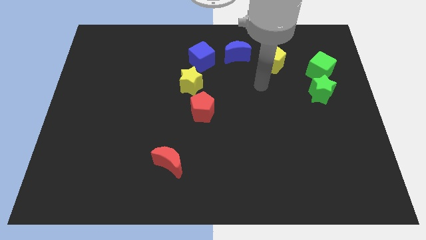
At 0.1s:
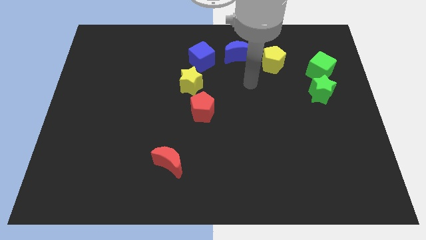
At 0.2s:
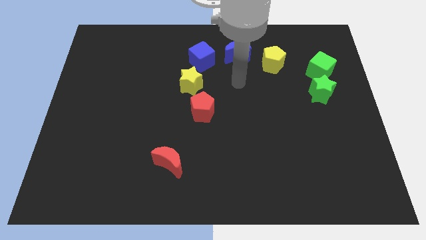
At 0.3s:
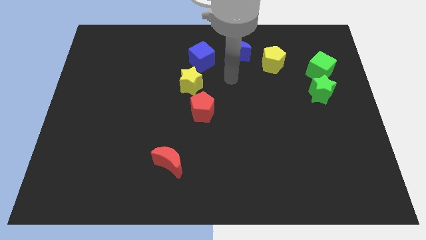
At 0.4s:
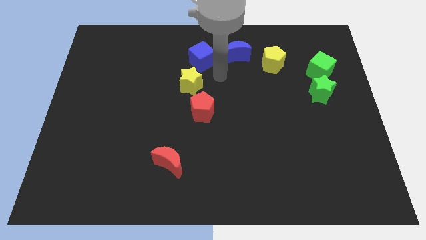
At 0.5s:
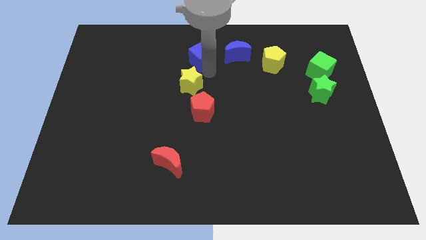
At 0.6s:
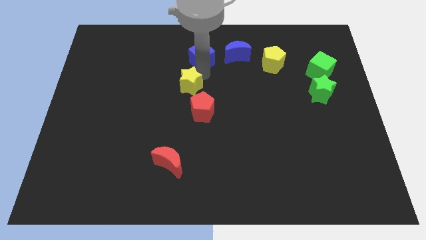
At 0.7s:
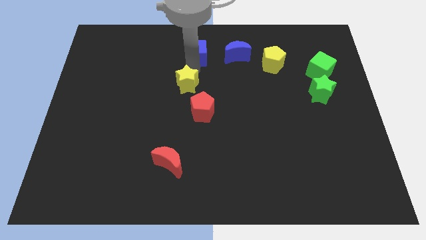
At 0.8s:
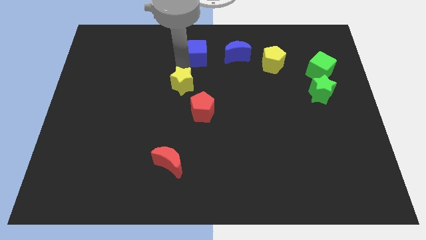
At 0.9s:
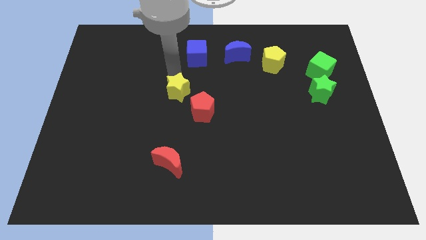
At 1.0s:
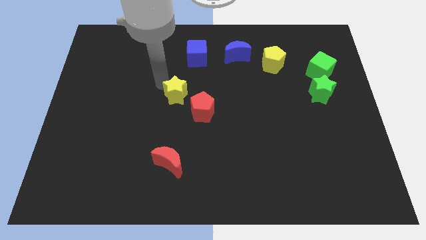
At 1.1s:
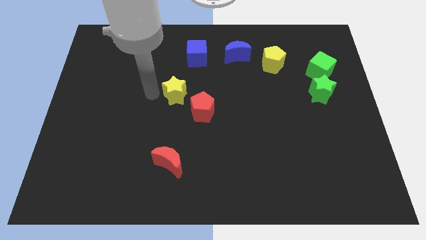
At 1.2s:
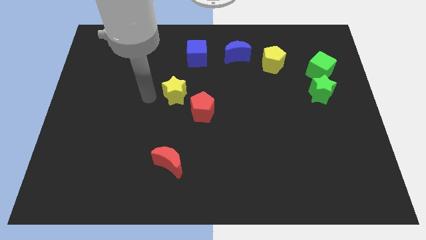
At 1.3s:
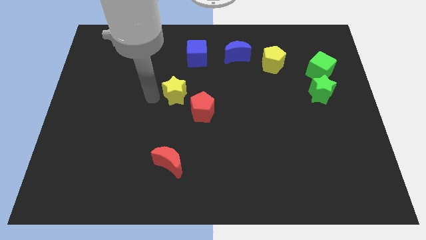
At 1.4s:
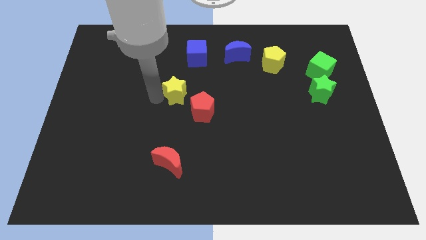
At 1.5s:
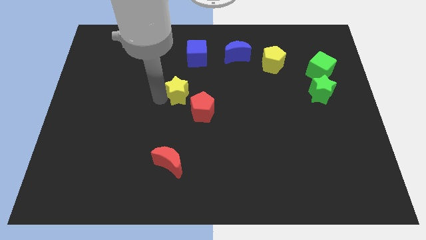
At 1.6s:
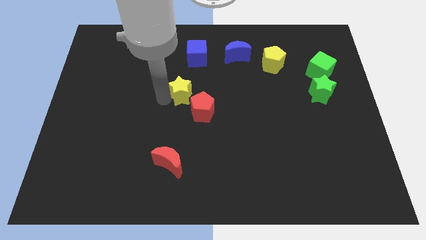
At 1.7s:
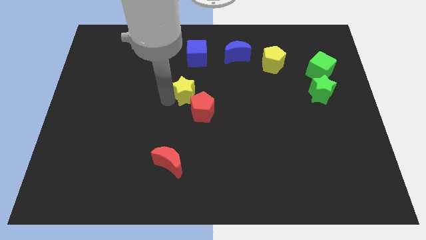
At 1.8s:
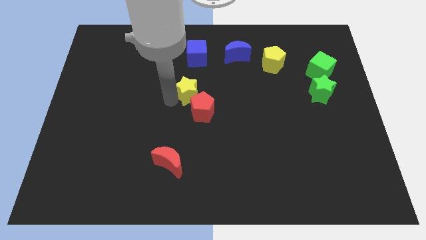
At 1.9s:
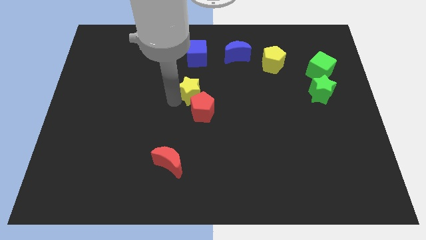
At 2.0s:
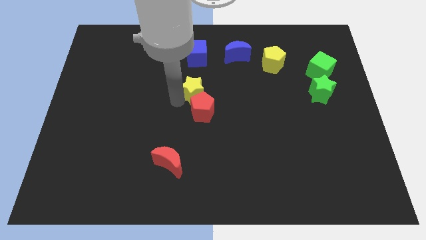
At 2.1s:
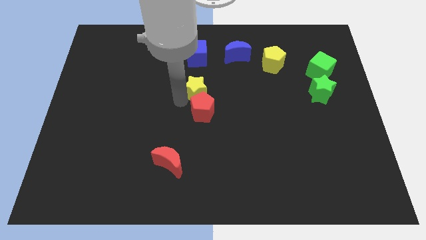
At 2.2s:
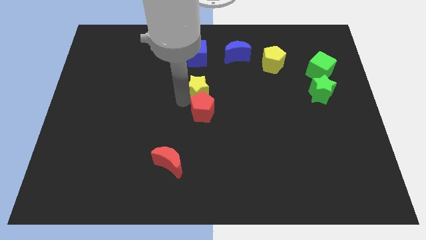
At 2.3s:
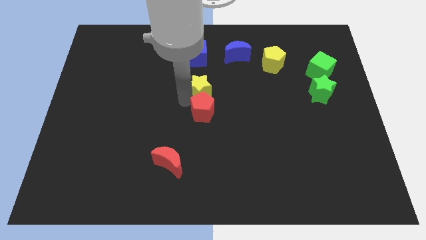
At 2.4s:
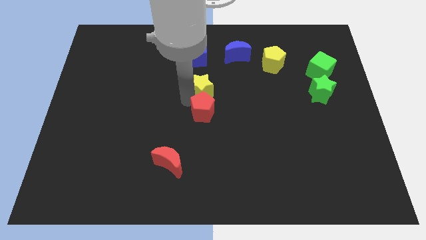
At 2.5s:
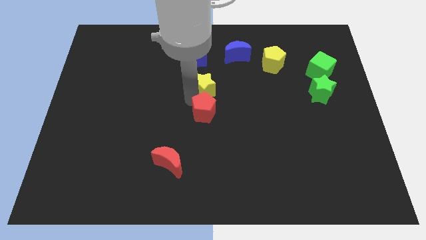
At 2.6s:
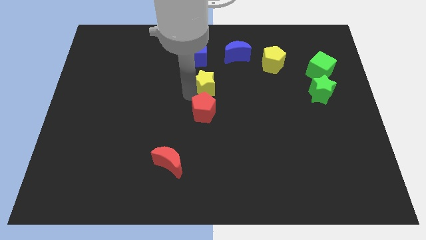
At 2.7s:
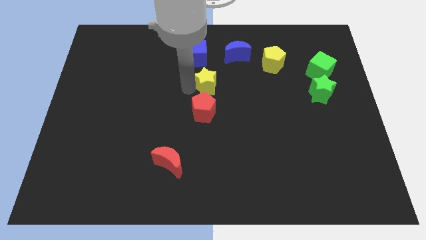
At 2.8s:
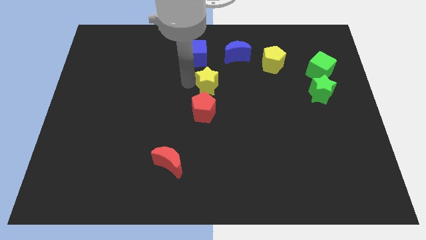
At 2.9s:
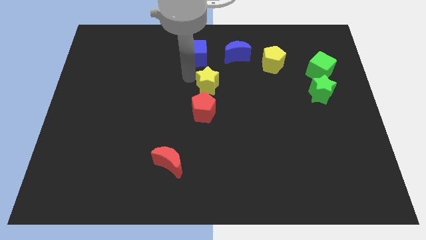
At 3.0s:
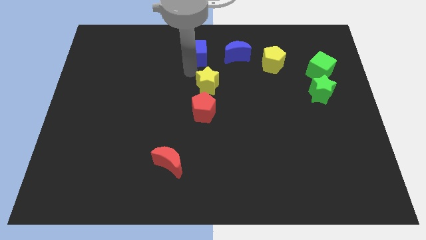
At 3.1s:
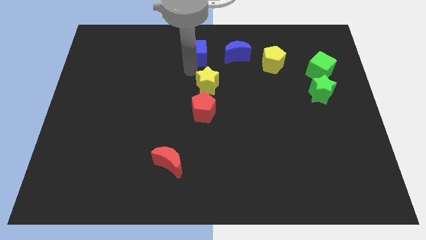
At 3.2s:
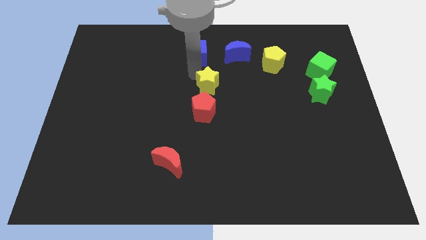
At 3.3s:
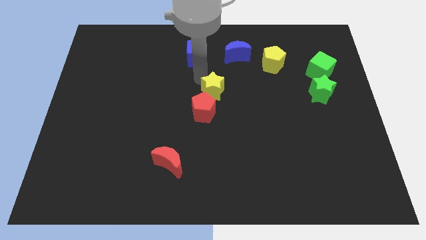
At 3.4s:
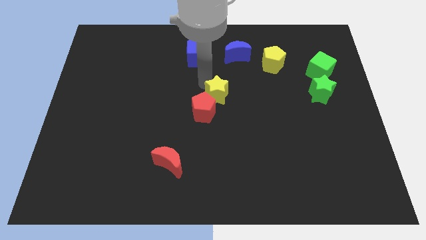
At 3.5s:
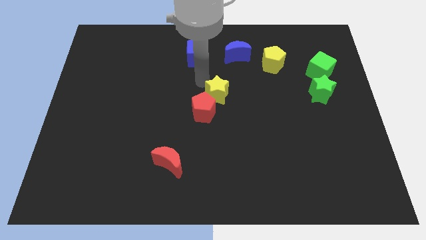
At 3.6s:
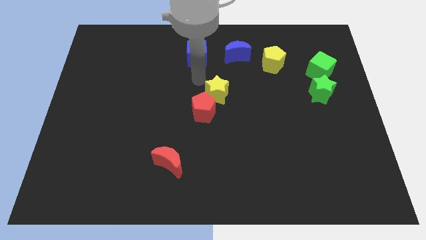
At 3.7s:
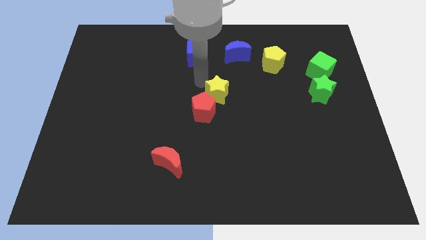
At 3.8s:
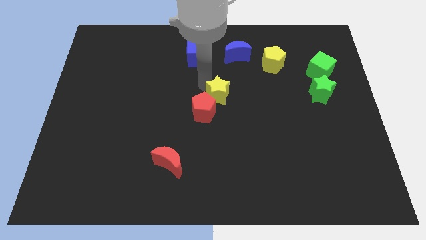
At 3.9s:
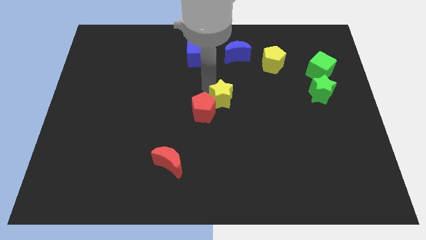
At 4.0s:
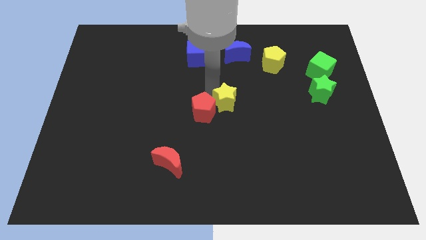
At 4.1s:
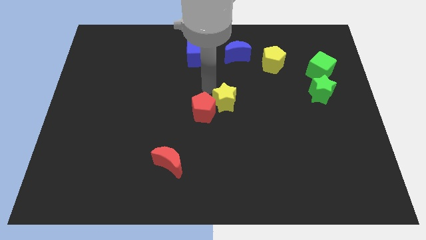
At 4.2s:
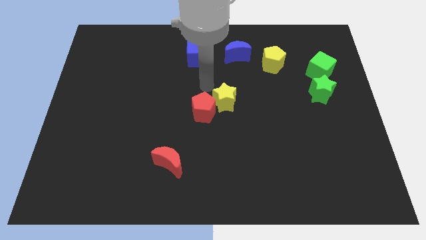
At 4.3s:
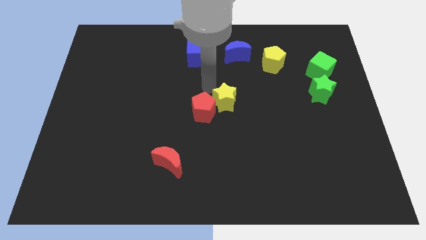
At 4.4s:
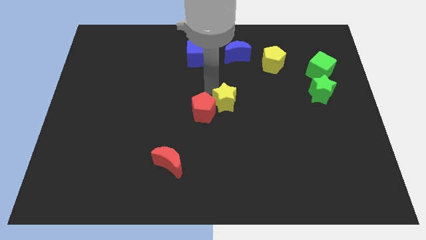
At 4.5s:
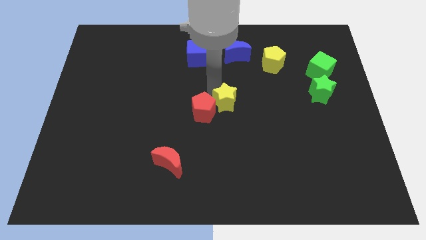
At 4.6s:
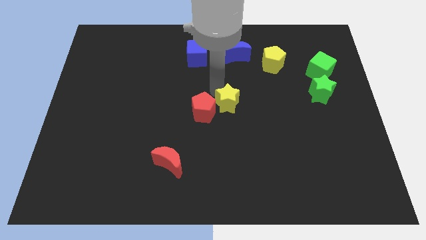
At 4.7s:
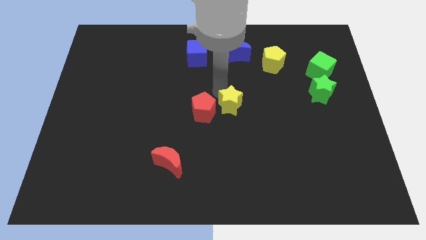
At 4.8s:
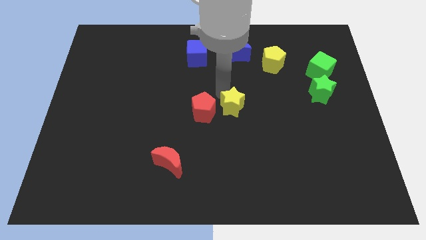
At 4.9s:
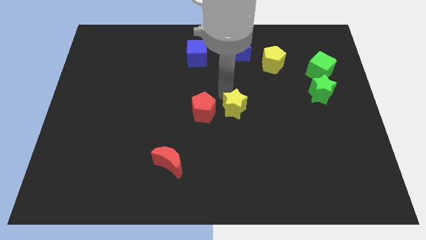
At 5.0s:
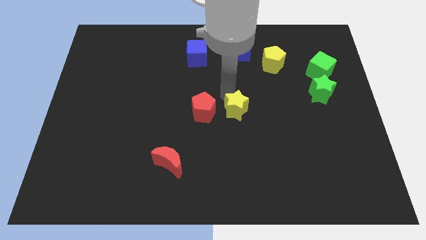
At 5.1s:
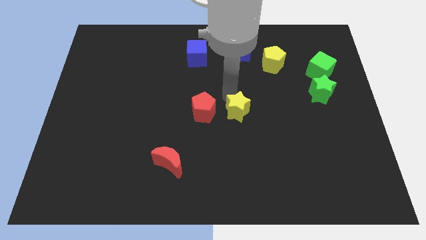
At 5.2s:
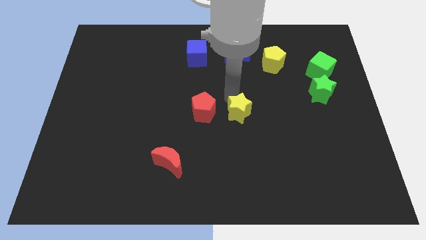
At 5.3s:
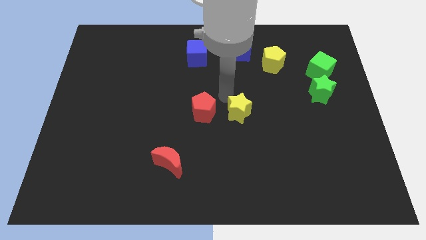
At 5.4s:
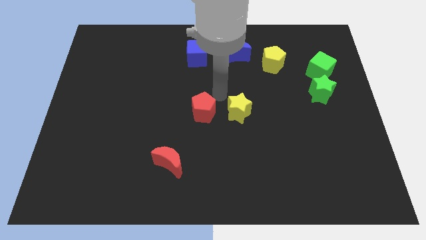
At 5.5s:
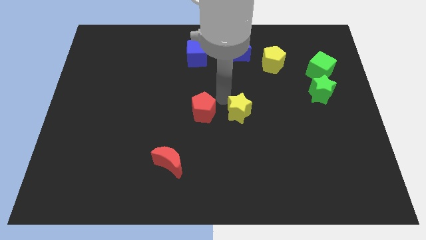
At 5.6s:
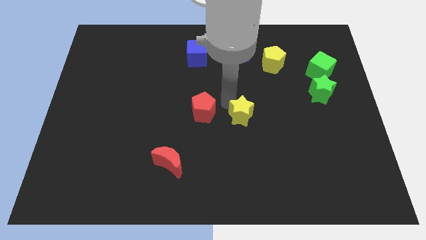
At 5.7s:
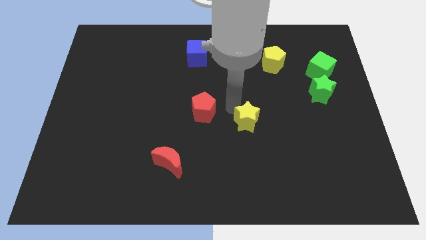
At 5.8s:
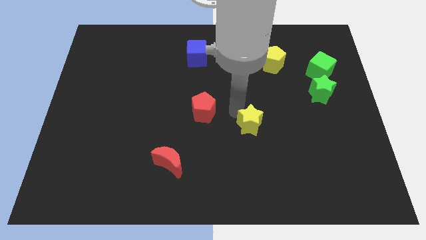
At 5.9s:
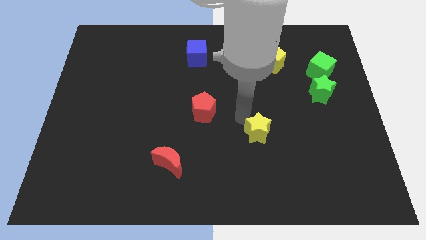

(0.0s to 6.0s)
push the yellow star diagonally downwards and to the right

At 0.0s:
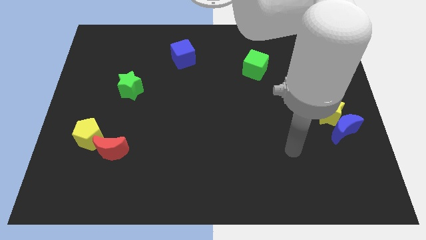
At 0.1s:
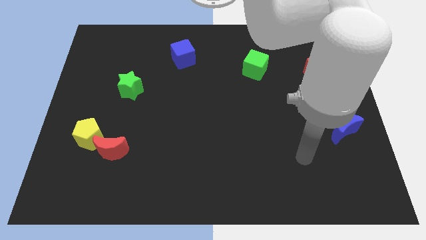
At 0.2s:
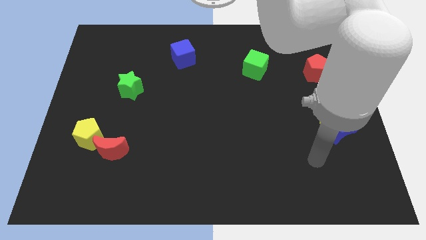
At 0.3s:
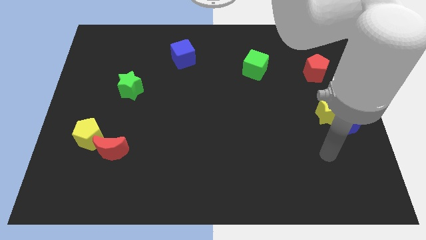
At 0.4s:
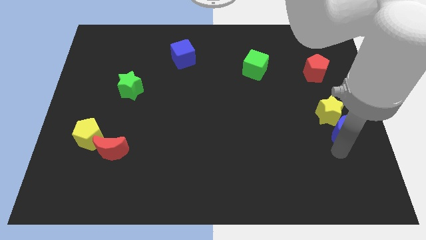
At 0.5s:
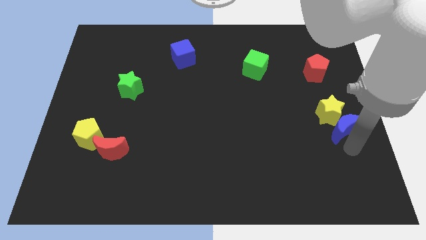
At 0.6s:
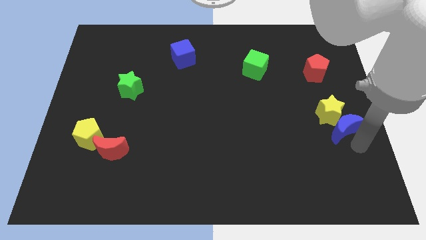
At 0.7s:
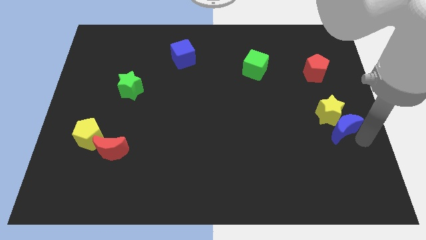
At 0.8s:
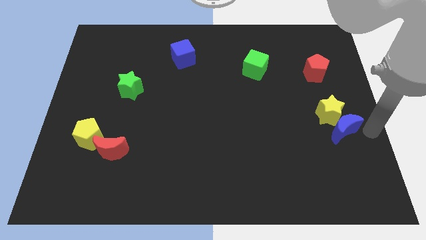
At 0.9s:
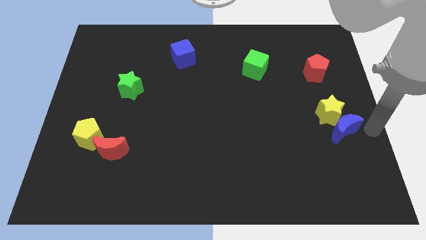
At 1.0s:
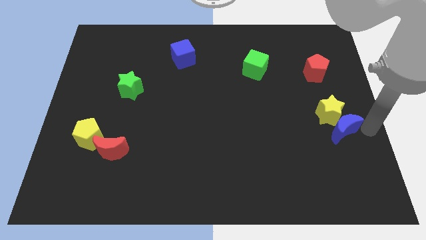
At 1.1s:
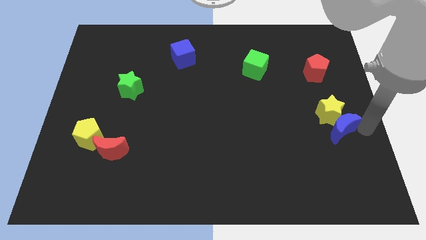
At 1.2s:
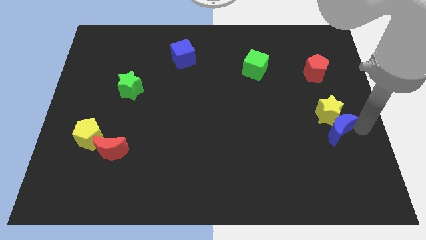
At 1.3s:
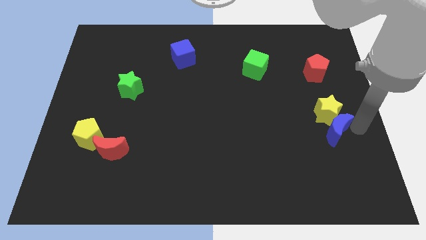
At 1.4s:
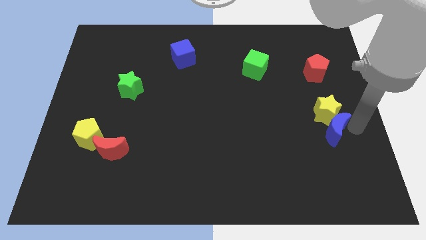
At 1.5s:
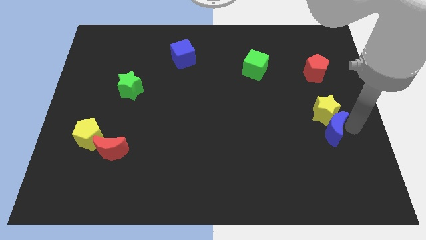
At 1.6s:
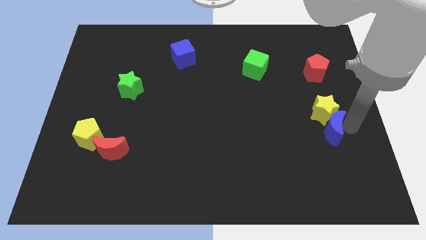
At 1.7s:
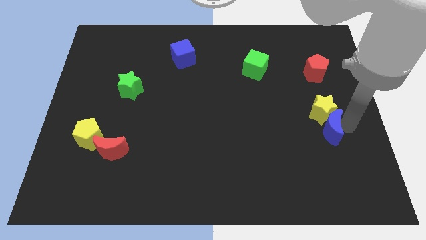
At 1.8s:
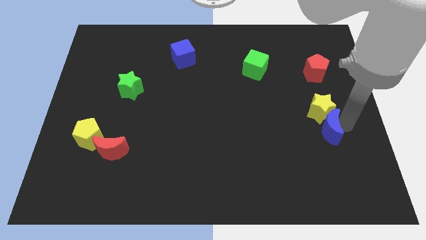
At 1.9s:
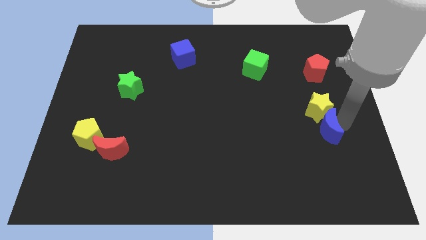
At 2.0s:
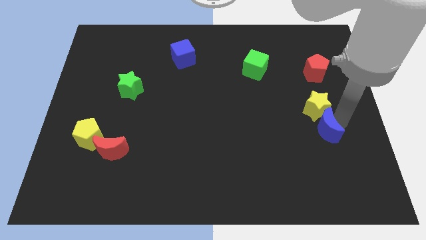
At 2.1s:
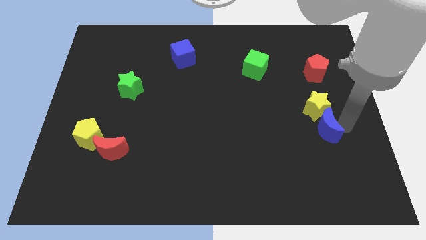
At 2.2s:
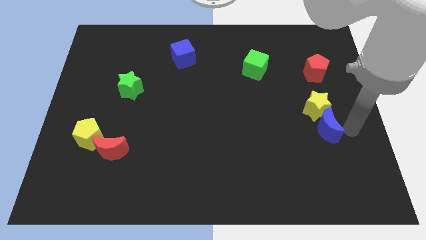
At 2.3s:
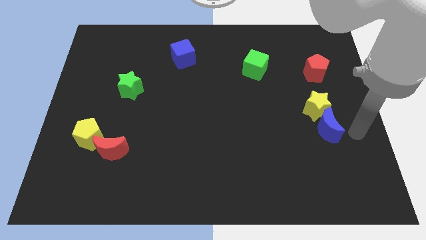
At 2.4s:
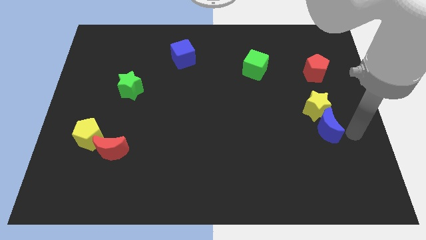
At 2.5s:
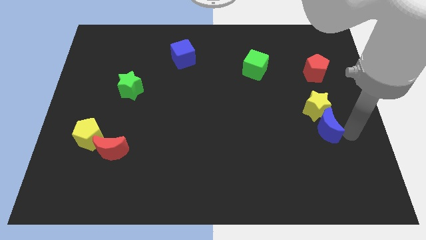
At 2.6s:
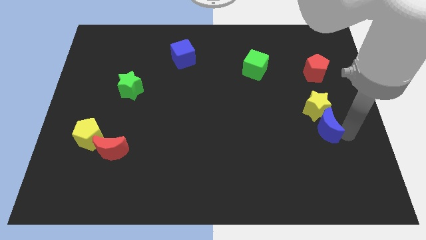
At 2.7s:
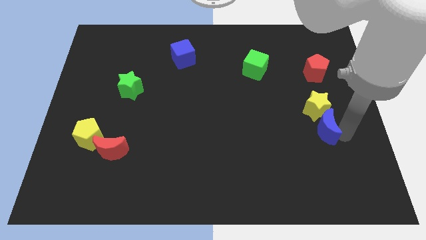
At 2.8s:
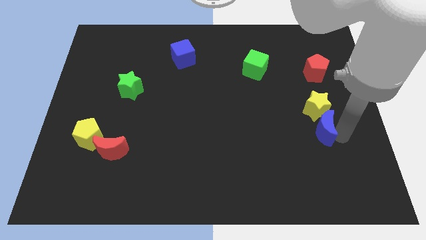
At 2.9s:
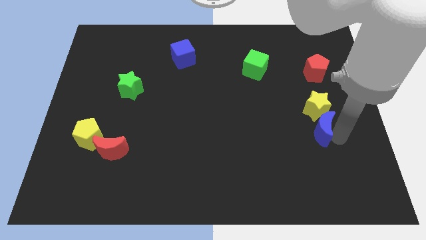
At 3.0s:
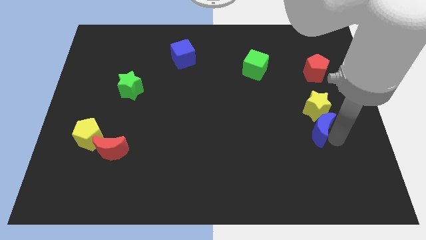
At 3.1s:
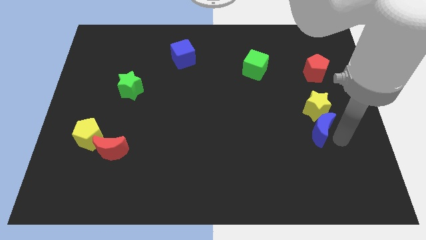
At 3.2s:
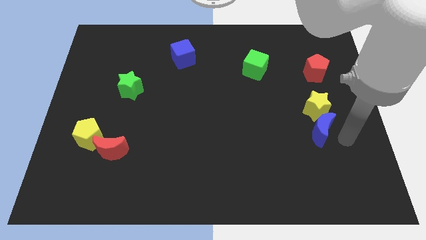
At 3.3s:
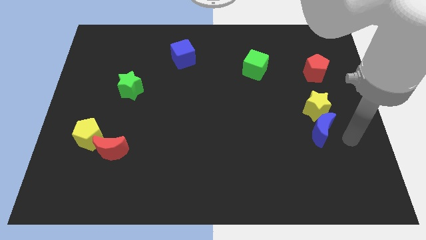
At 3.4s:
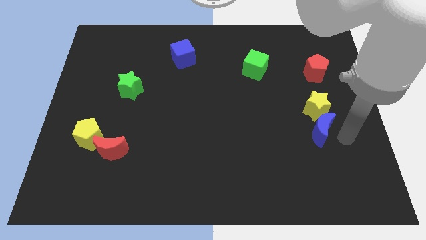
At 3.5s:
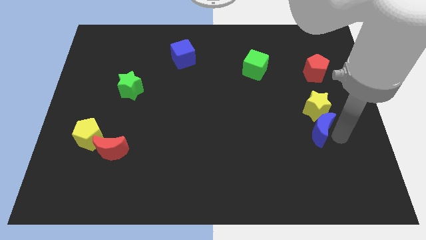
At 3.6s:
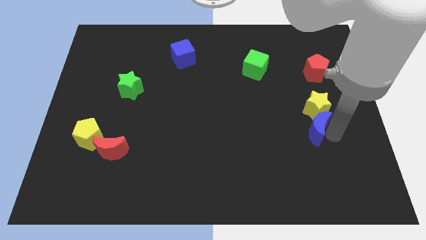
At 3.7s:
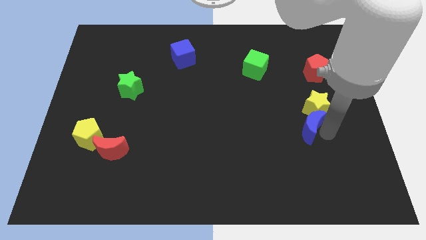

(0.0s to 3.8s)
push the blue moon to the left a little bit
